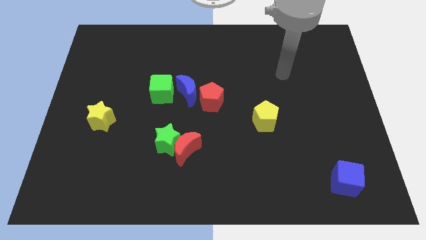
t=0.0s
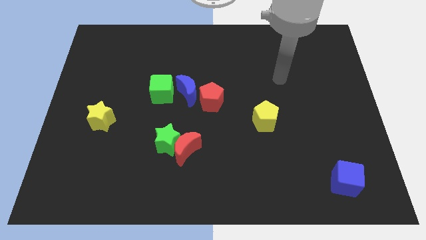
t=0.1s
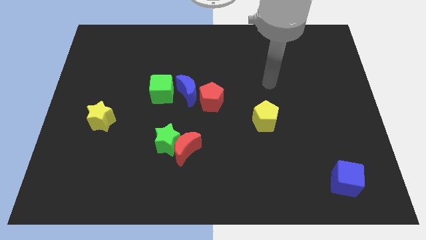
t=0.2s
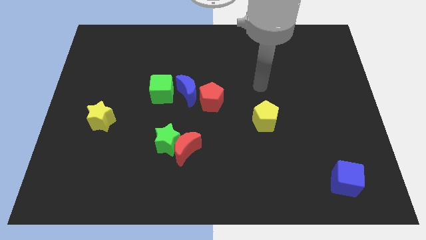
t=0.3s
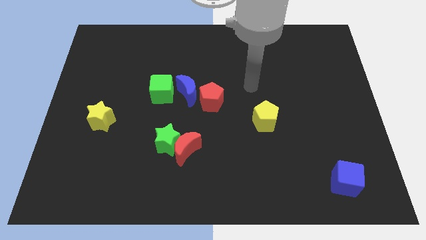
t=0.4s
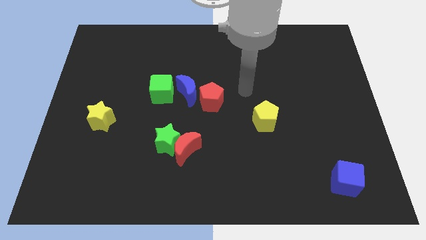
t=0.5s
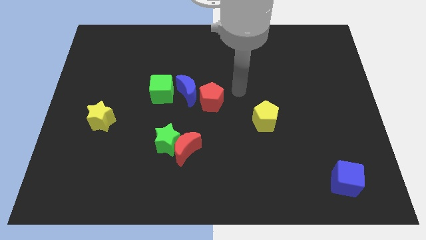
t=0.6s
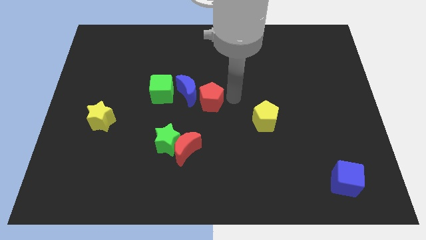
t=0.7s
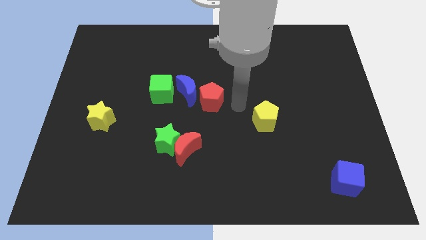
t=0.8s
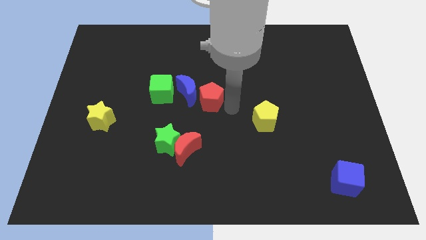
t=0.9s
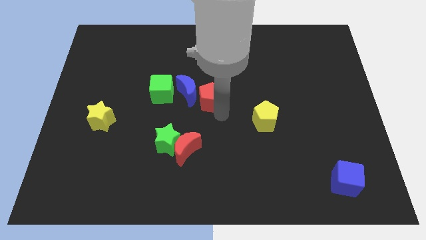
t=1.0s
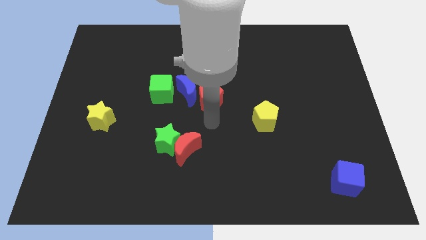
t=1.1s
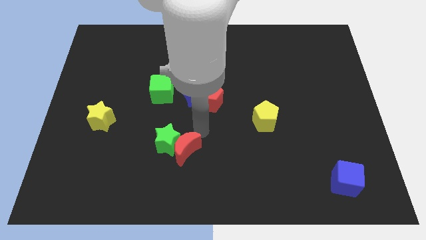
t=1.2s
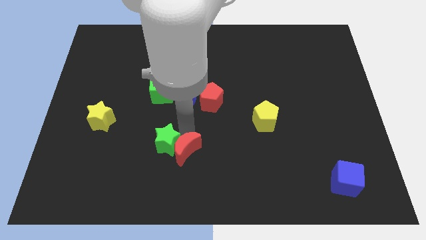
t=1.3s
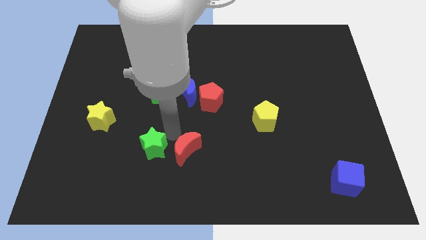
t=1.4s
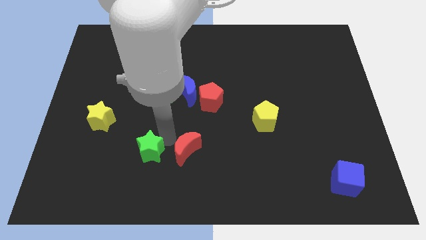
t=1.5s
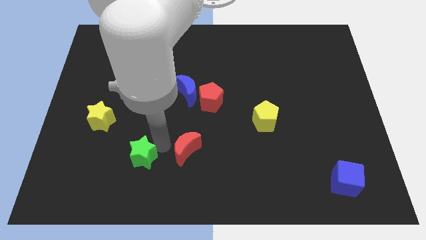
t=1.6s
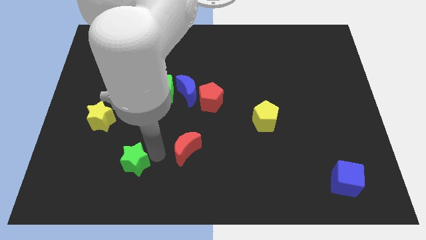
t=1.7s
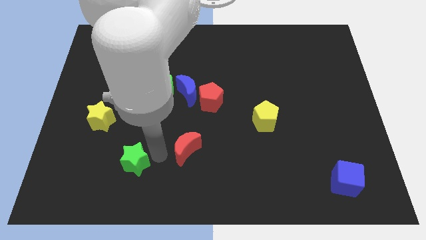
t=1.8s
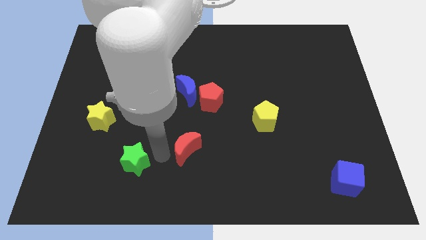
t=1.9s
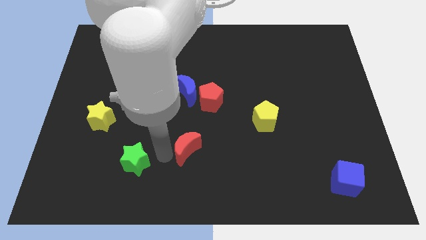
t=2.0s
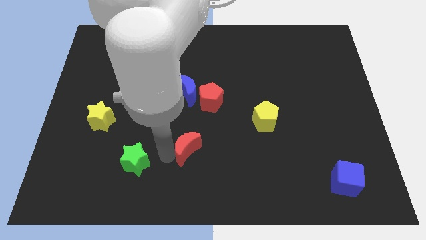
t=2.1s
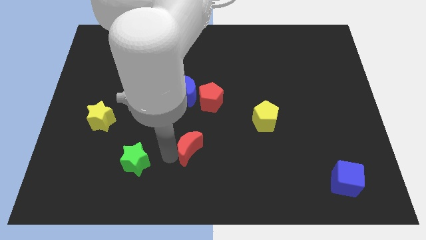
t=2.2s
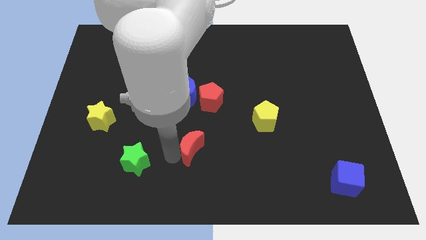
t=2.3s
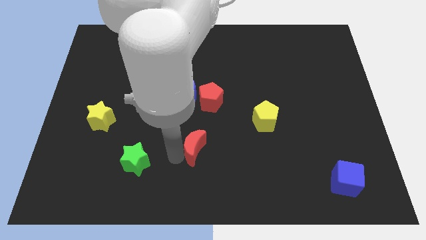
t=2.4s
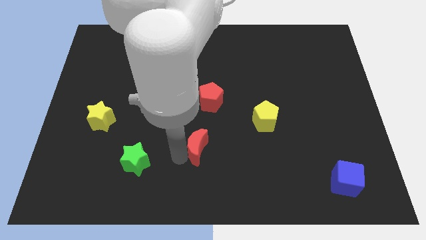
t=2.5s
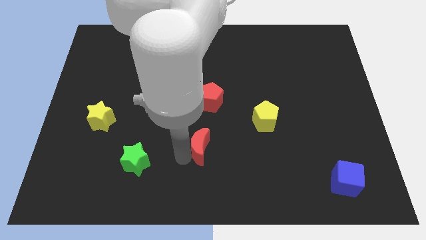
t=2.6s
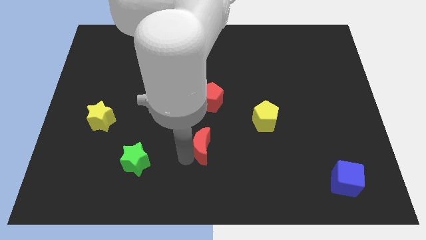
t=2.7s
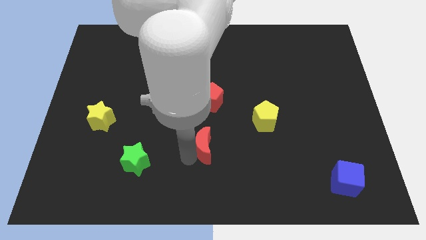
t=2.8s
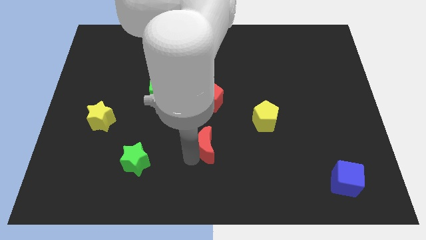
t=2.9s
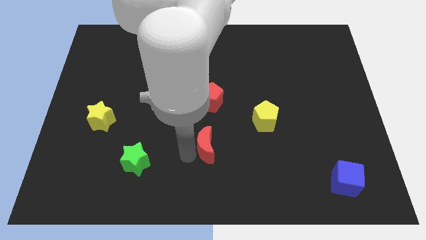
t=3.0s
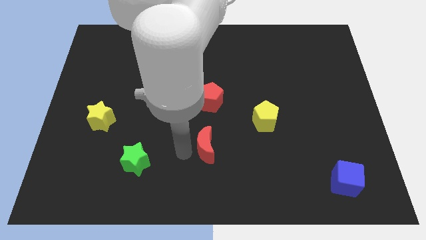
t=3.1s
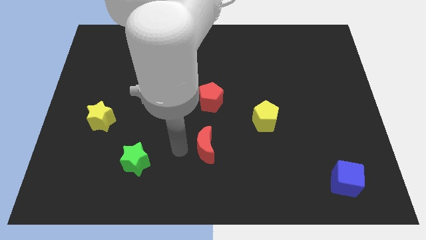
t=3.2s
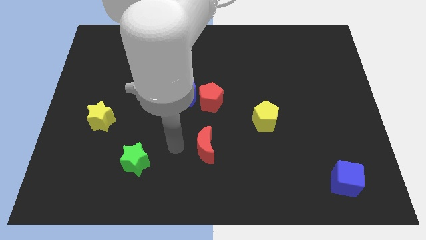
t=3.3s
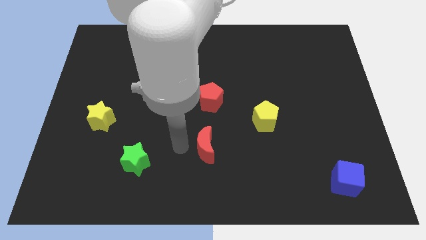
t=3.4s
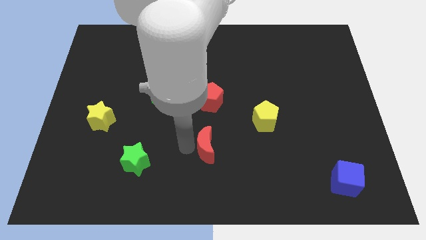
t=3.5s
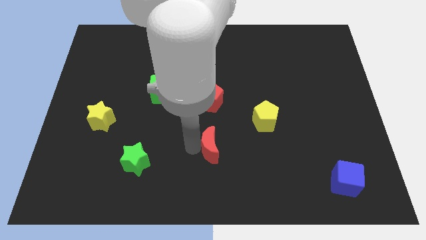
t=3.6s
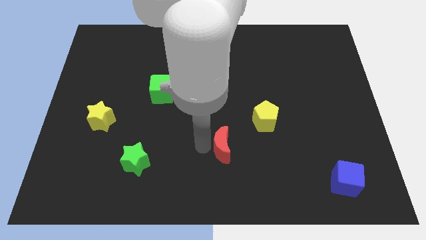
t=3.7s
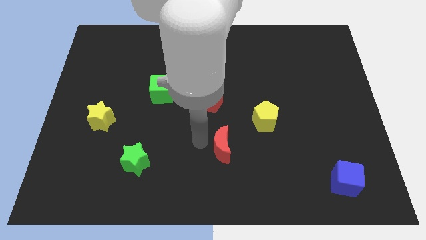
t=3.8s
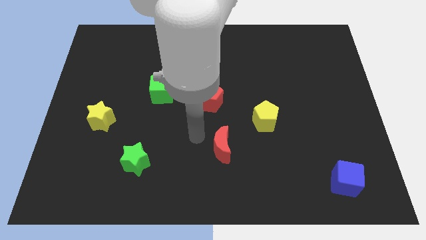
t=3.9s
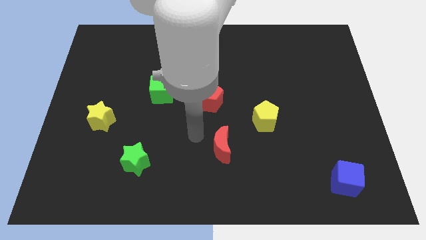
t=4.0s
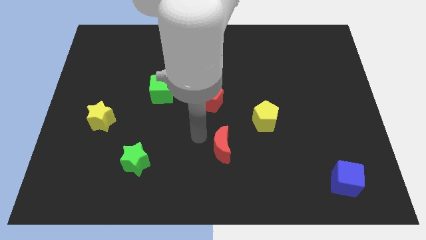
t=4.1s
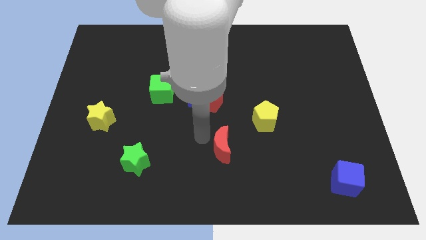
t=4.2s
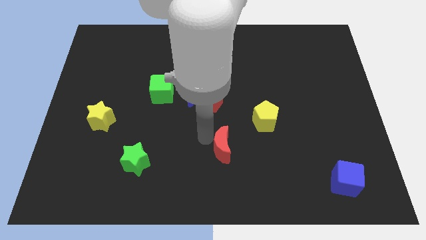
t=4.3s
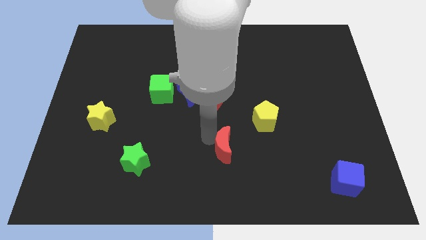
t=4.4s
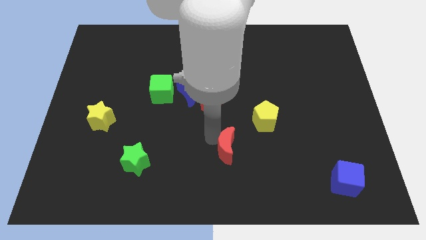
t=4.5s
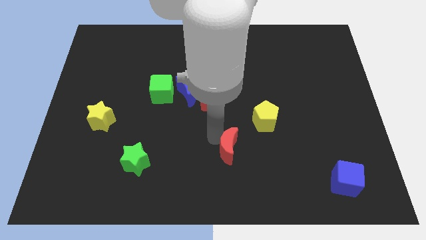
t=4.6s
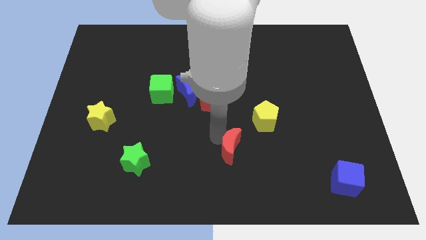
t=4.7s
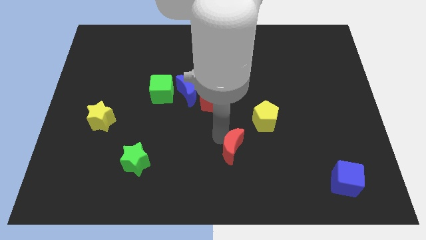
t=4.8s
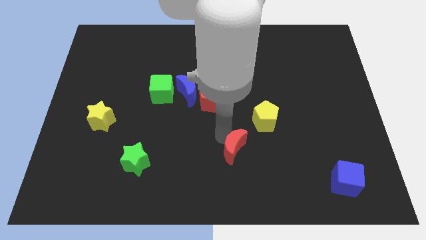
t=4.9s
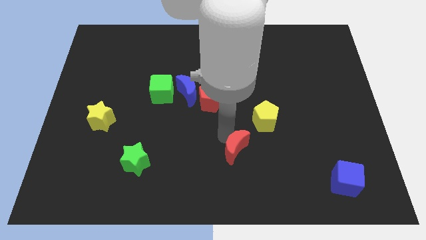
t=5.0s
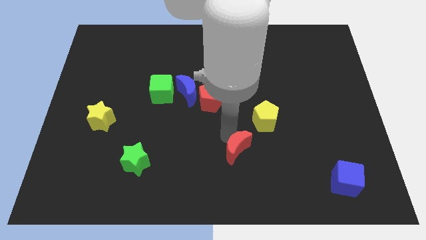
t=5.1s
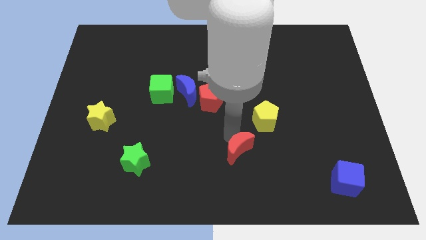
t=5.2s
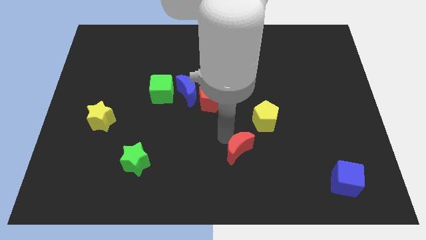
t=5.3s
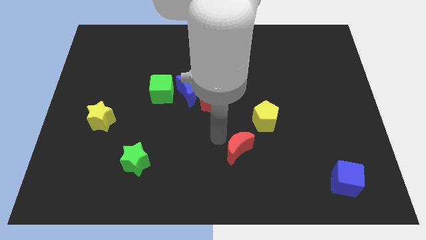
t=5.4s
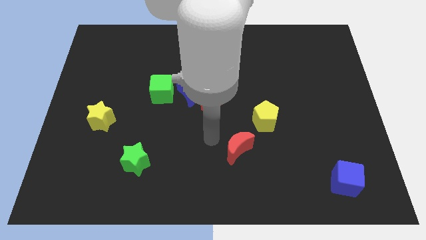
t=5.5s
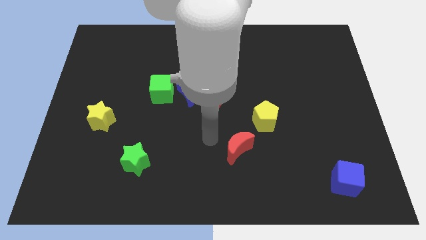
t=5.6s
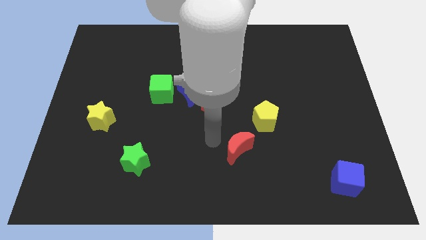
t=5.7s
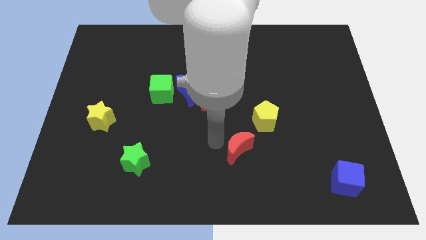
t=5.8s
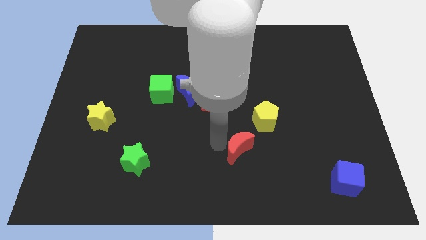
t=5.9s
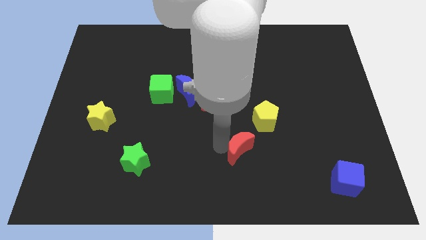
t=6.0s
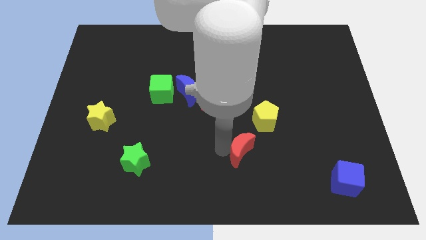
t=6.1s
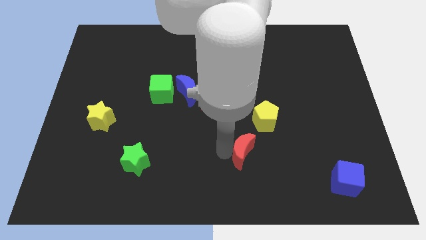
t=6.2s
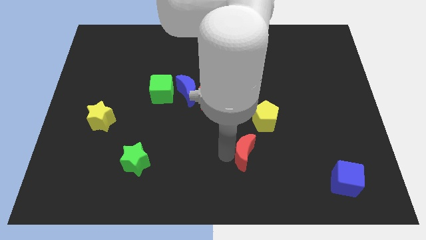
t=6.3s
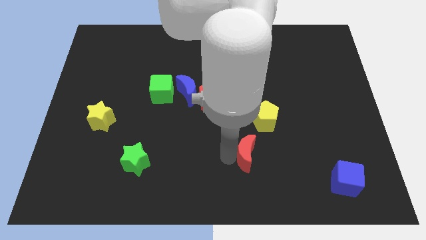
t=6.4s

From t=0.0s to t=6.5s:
slide the red moon to the bottom of the yellow pentagon

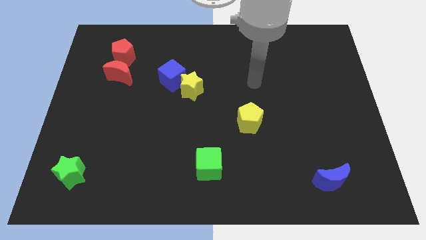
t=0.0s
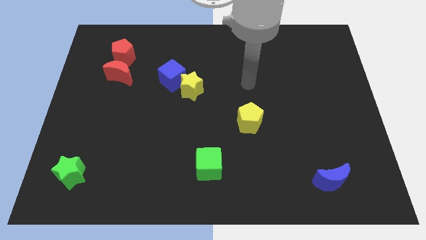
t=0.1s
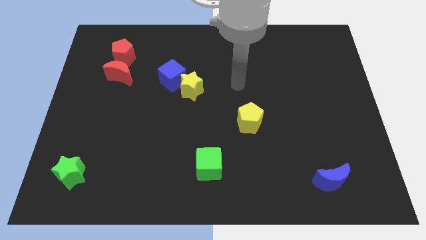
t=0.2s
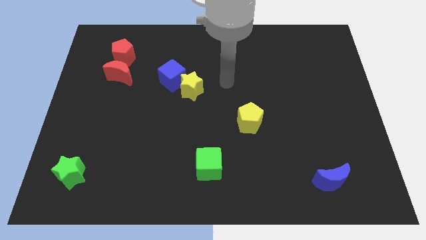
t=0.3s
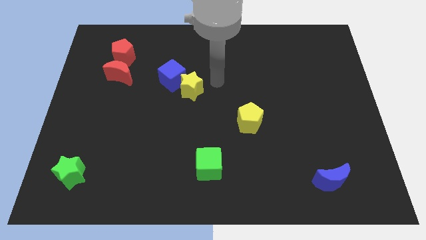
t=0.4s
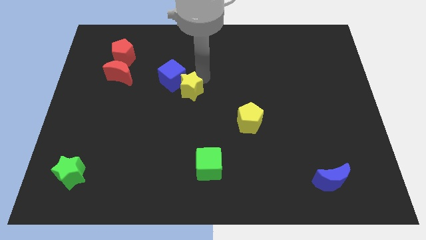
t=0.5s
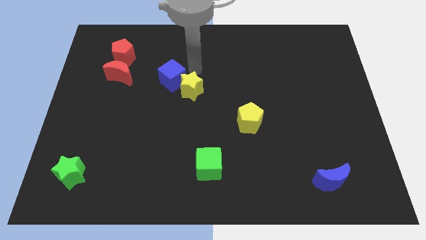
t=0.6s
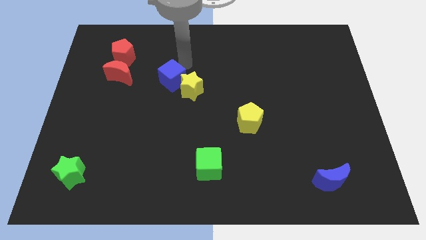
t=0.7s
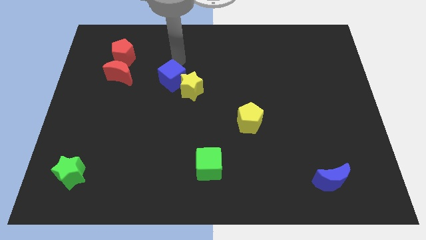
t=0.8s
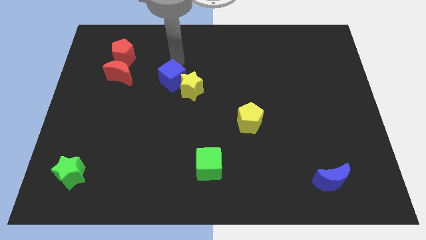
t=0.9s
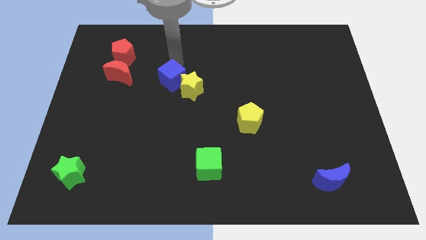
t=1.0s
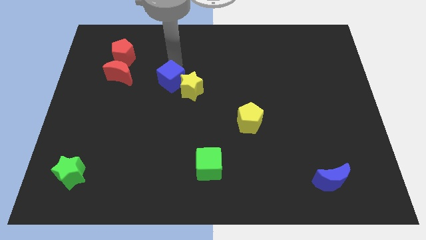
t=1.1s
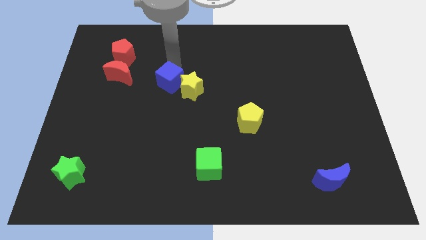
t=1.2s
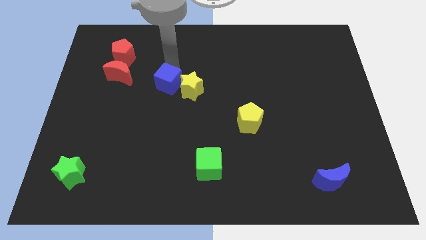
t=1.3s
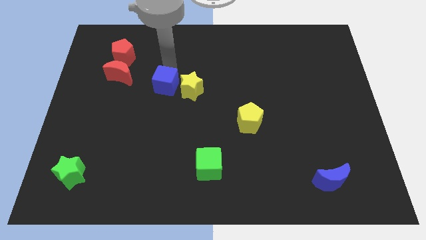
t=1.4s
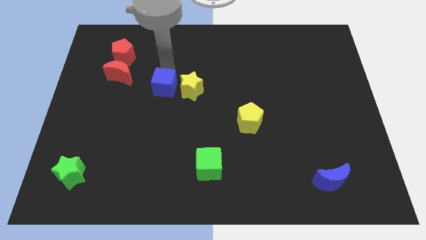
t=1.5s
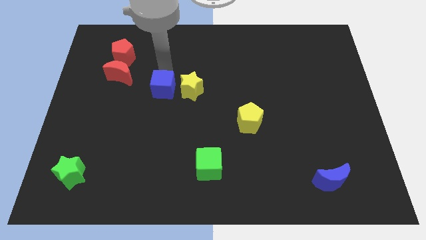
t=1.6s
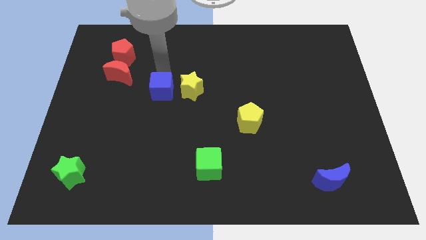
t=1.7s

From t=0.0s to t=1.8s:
slide the blue cube to the bottom left side of the yellow star
